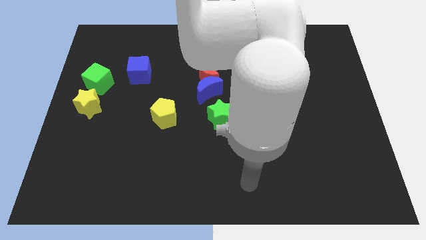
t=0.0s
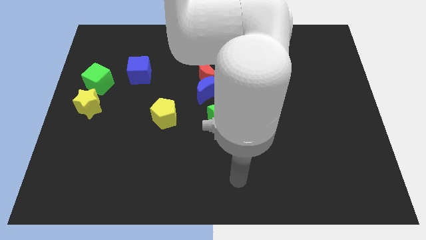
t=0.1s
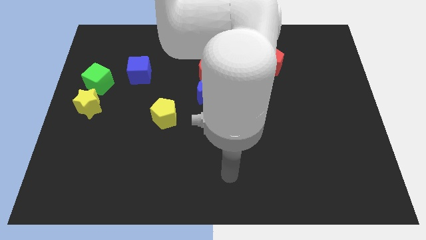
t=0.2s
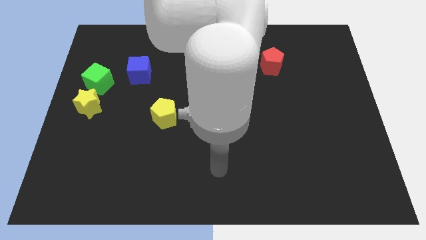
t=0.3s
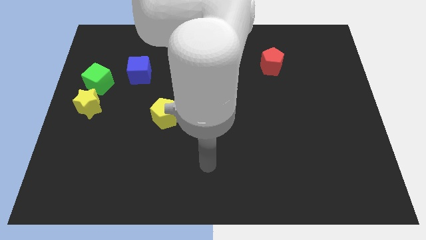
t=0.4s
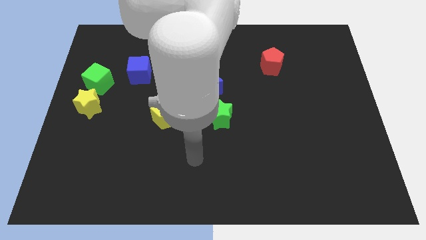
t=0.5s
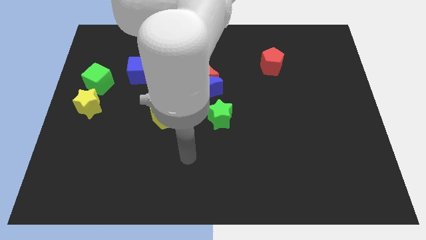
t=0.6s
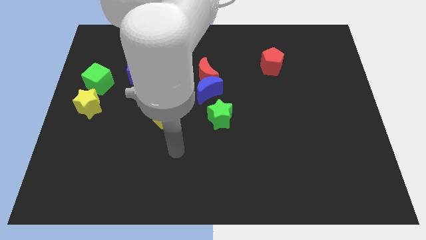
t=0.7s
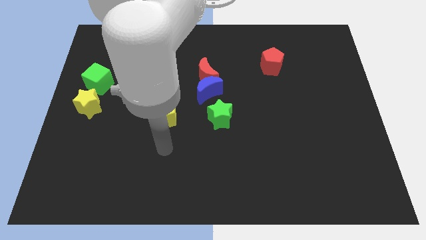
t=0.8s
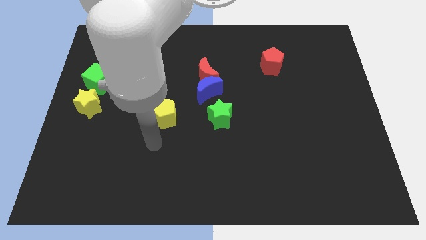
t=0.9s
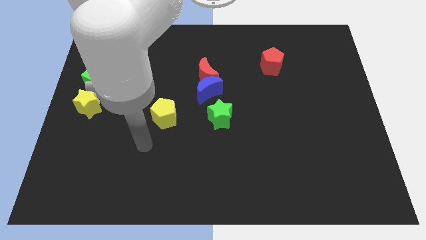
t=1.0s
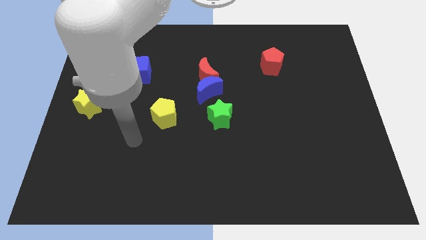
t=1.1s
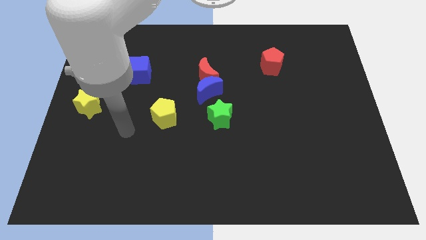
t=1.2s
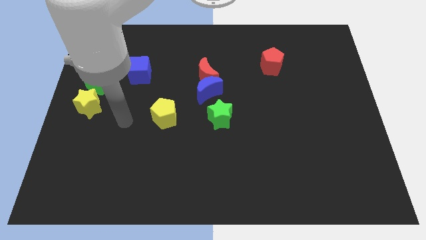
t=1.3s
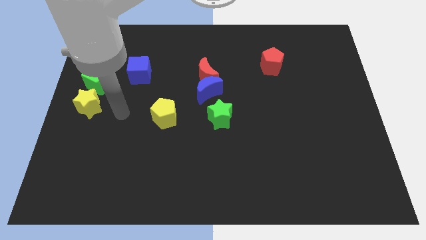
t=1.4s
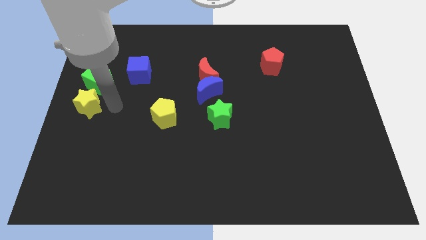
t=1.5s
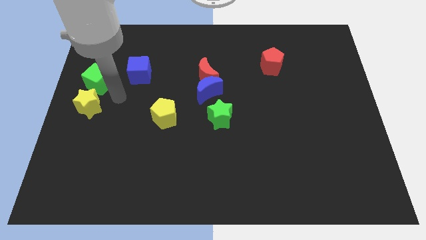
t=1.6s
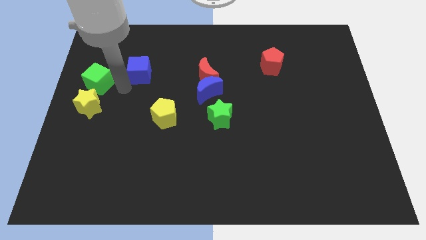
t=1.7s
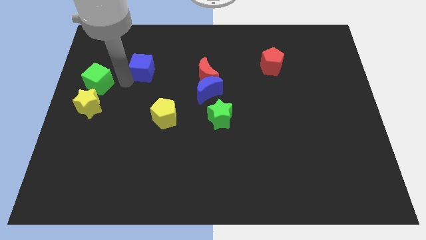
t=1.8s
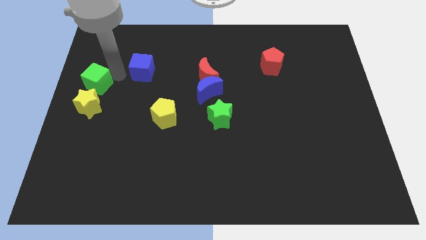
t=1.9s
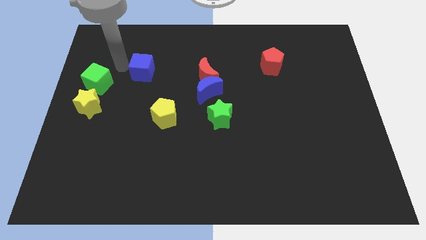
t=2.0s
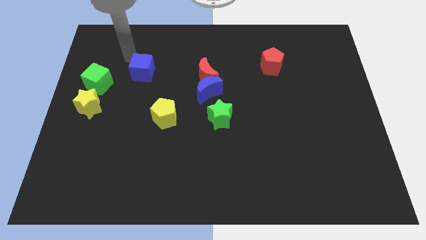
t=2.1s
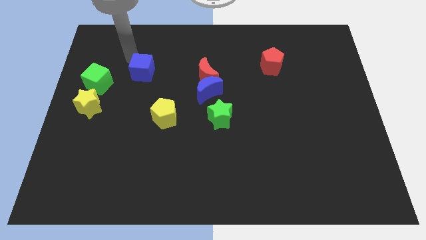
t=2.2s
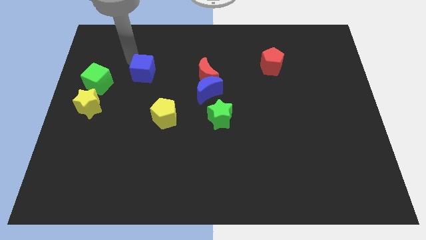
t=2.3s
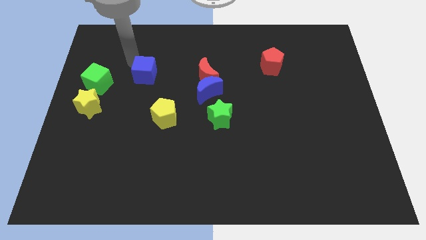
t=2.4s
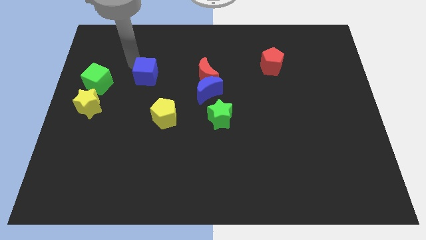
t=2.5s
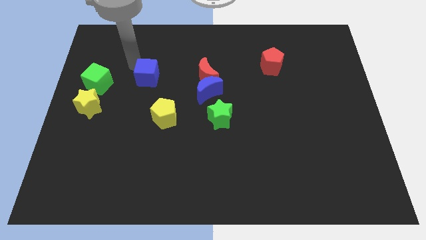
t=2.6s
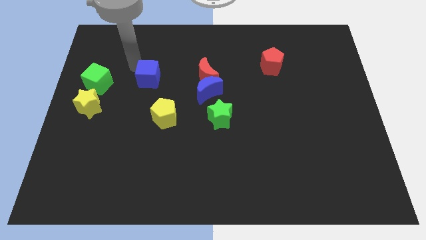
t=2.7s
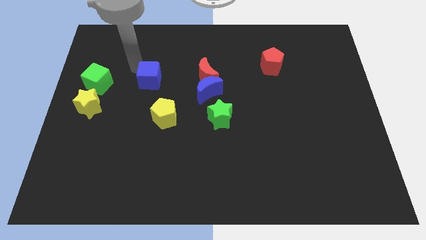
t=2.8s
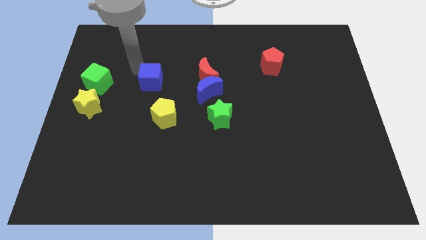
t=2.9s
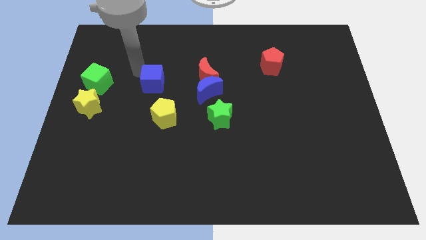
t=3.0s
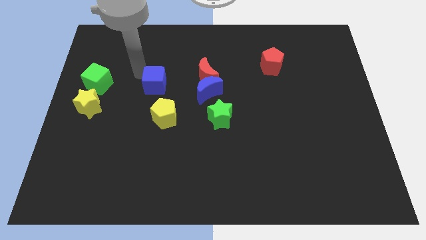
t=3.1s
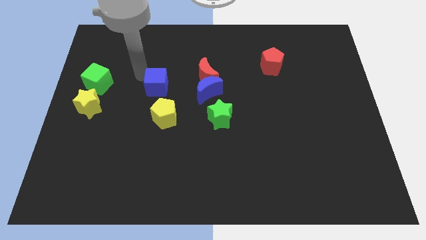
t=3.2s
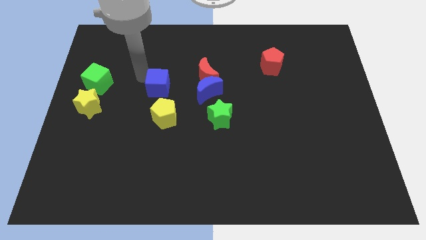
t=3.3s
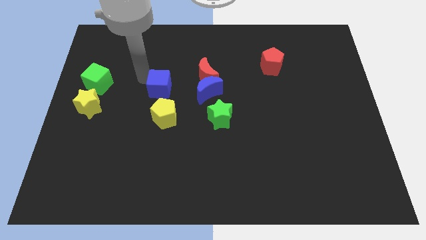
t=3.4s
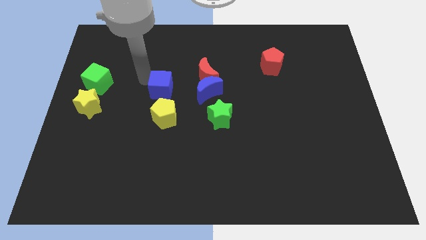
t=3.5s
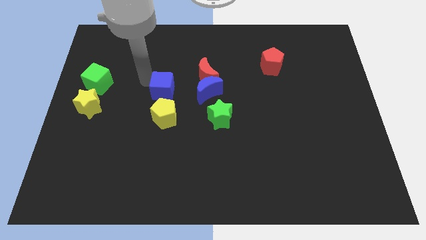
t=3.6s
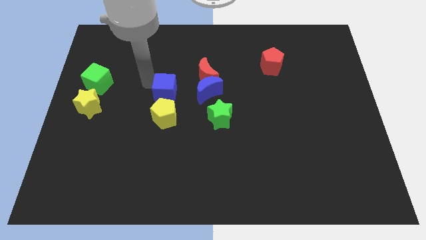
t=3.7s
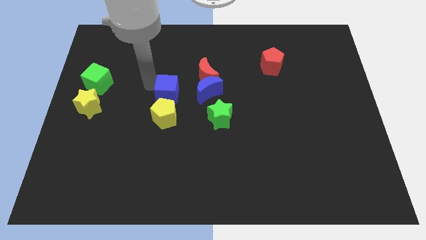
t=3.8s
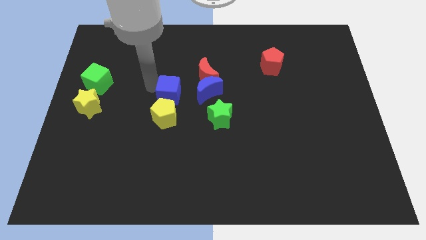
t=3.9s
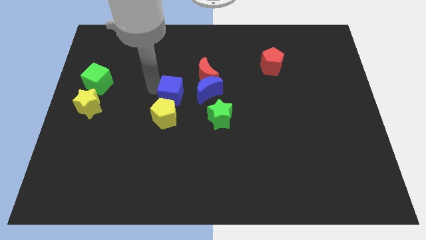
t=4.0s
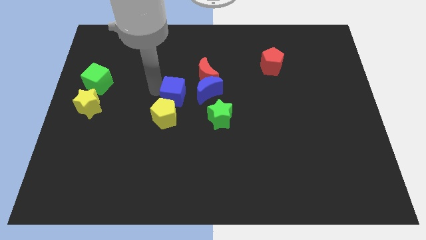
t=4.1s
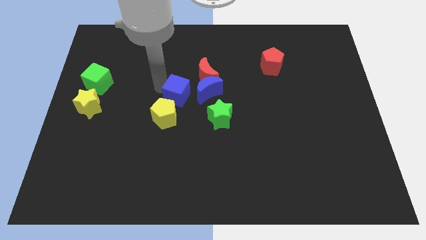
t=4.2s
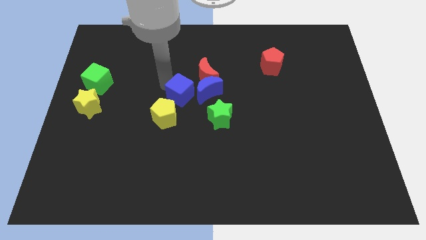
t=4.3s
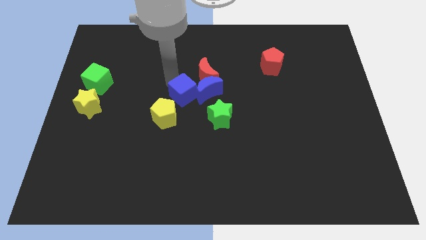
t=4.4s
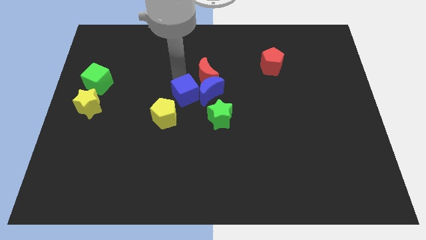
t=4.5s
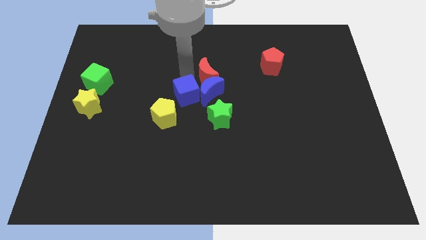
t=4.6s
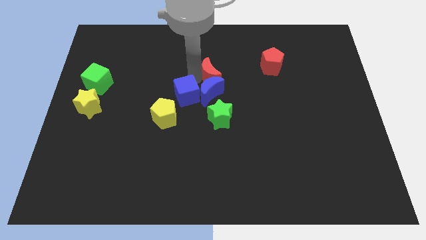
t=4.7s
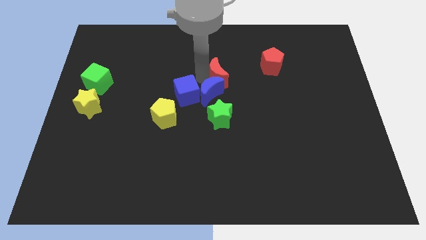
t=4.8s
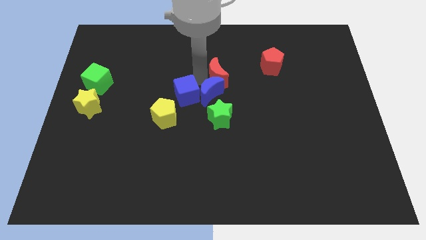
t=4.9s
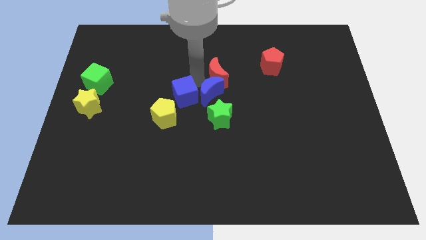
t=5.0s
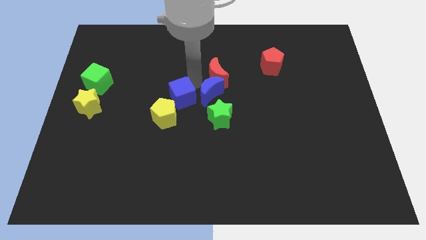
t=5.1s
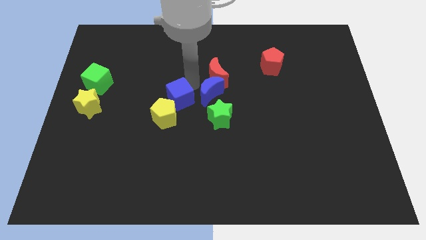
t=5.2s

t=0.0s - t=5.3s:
move the blue cube towards the yellow pentagon

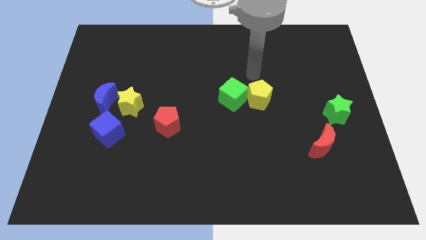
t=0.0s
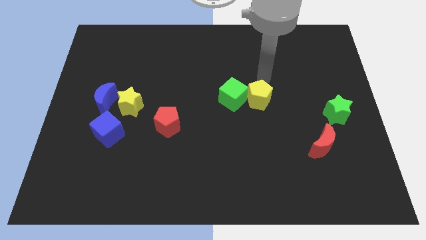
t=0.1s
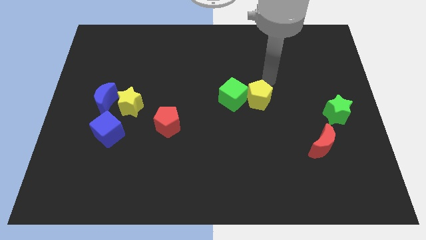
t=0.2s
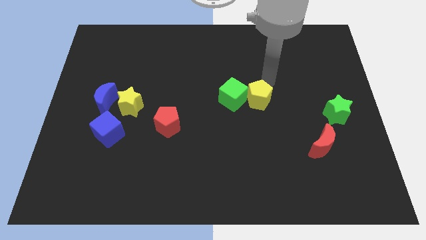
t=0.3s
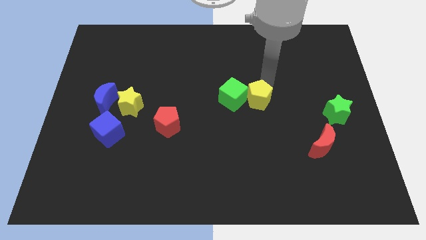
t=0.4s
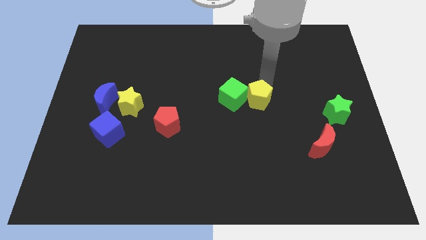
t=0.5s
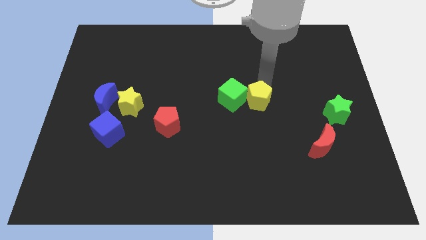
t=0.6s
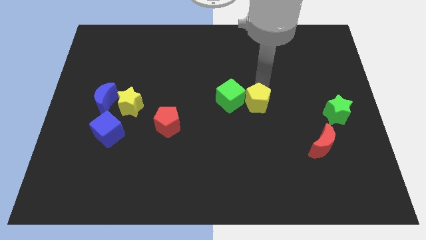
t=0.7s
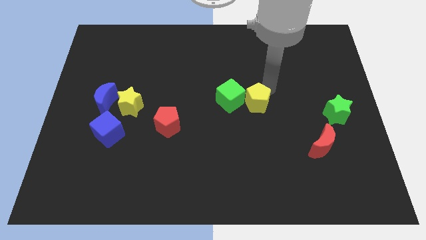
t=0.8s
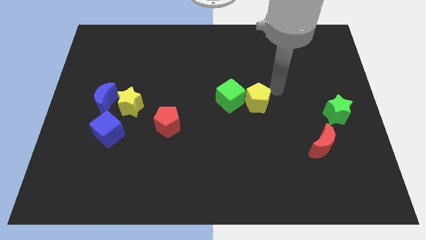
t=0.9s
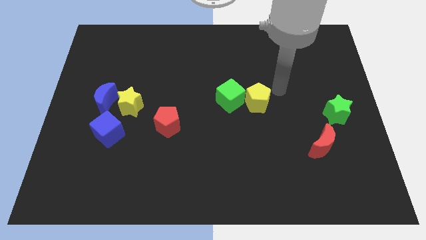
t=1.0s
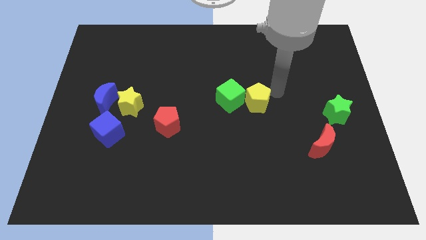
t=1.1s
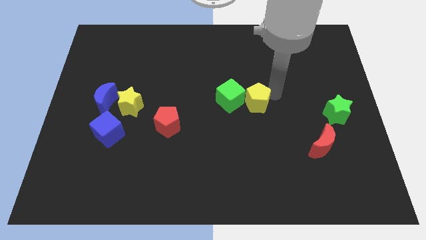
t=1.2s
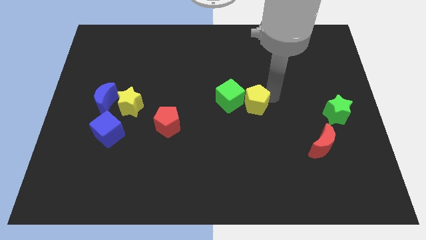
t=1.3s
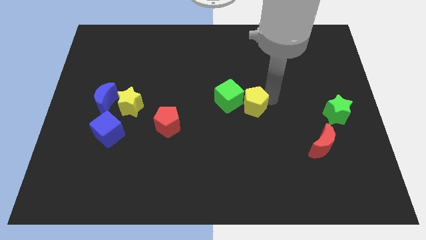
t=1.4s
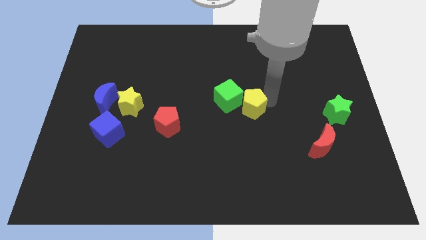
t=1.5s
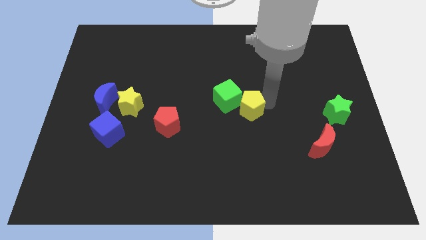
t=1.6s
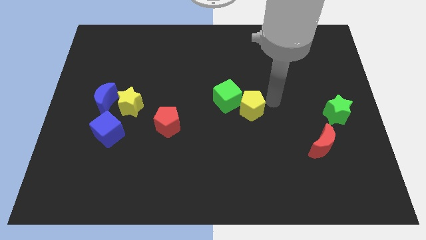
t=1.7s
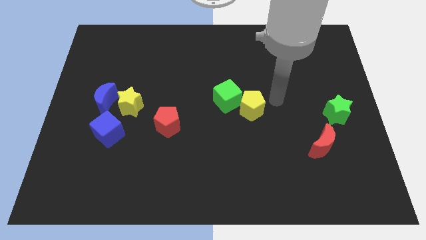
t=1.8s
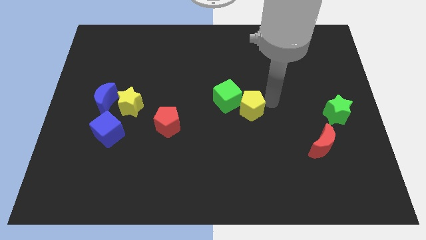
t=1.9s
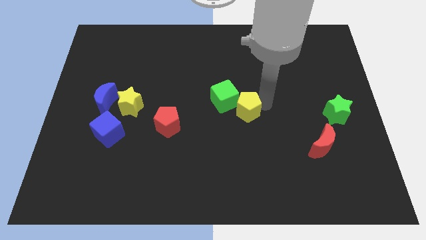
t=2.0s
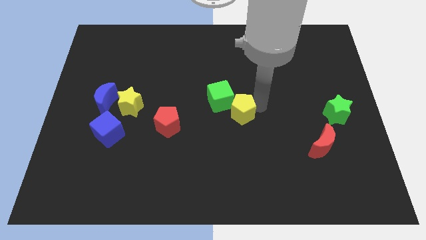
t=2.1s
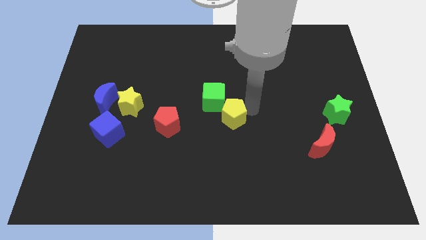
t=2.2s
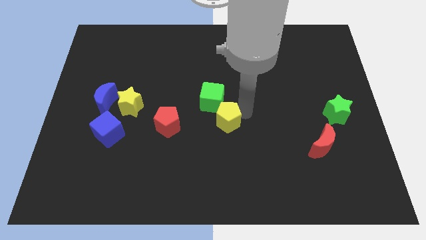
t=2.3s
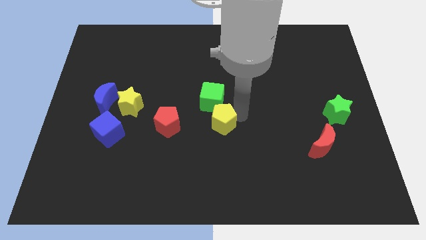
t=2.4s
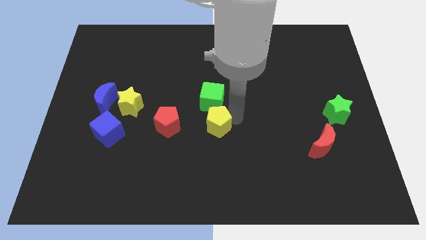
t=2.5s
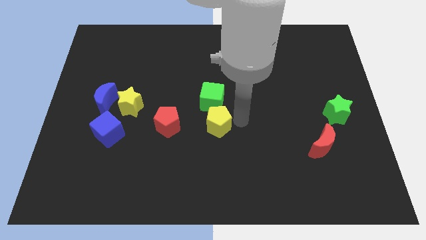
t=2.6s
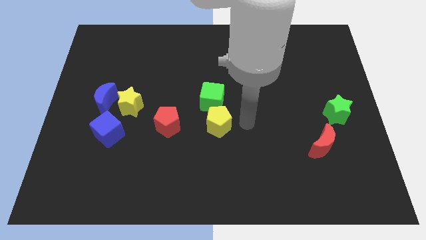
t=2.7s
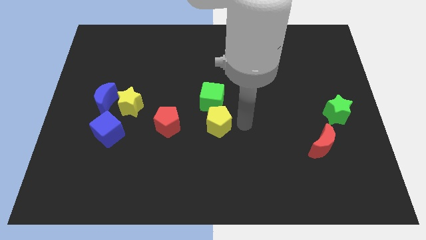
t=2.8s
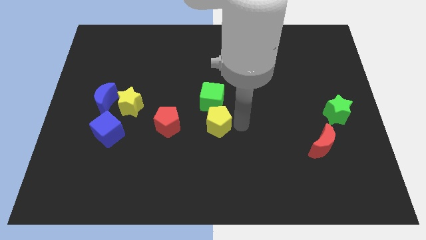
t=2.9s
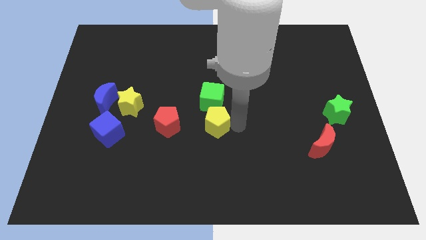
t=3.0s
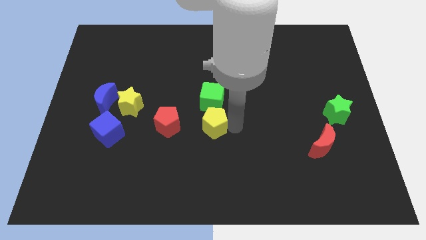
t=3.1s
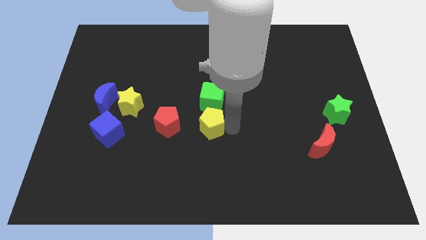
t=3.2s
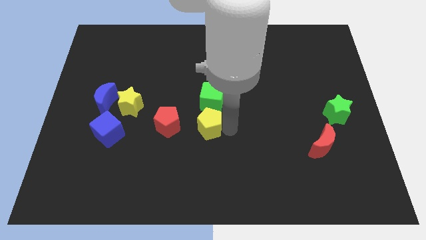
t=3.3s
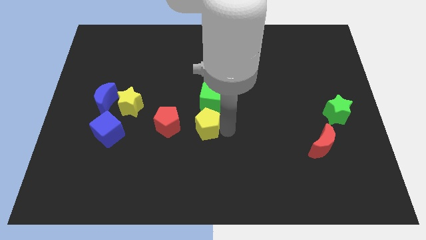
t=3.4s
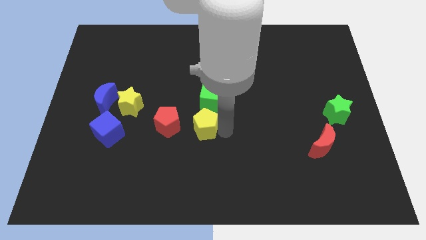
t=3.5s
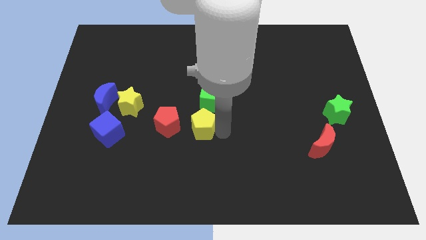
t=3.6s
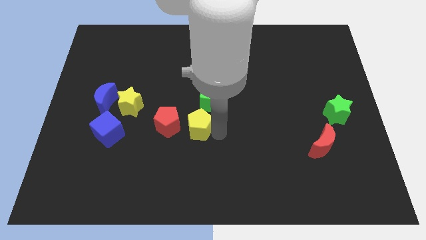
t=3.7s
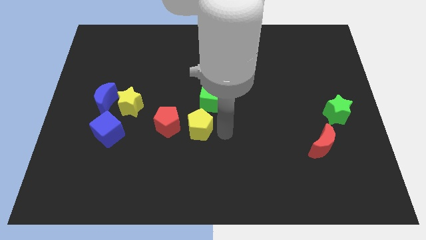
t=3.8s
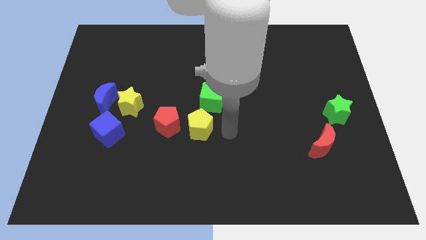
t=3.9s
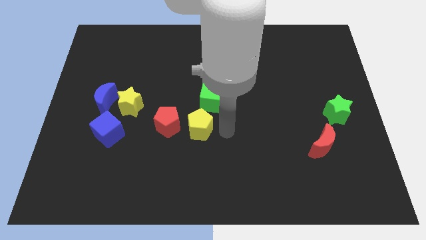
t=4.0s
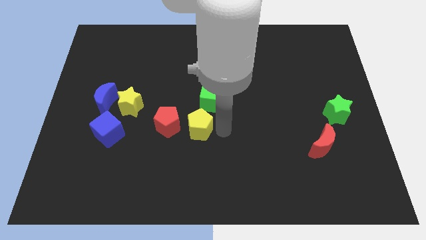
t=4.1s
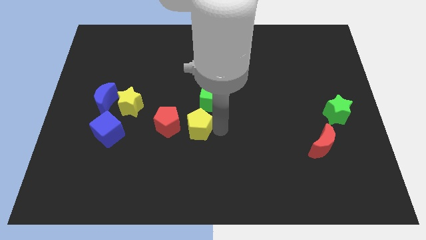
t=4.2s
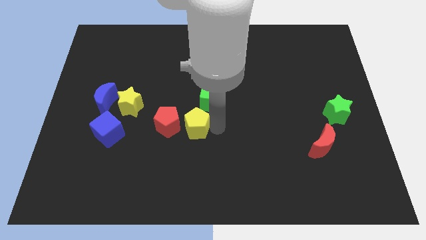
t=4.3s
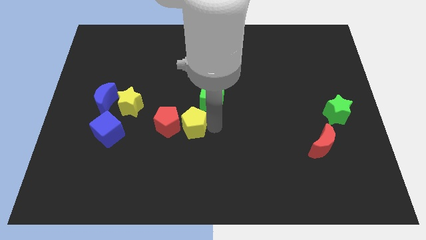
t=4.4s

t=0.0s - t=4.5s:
move the yellow pentagon close to the red pentagon
